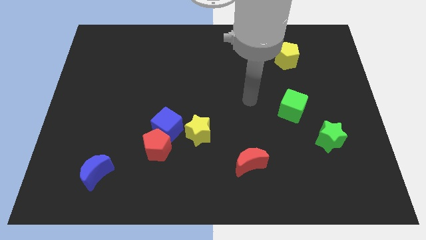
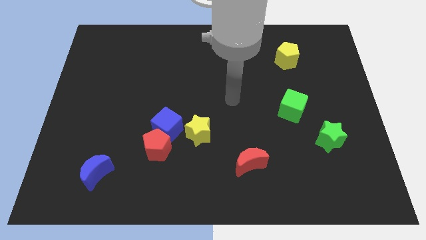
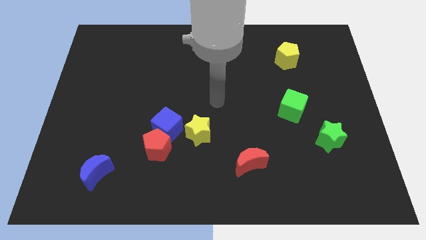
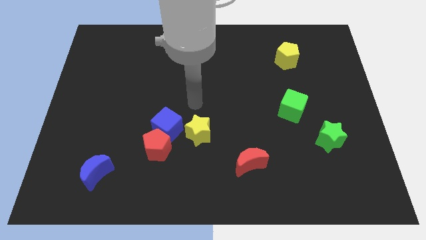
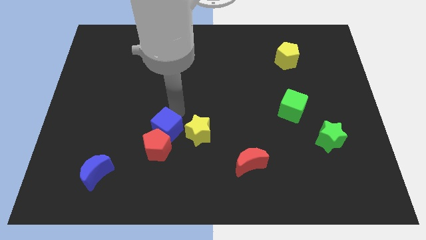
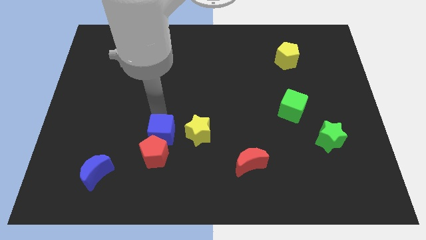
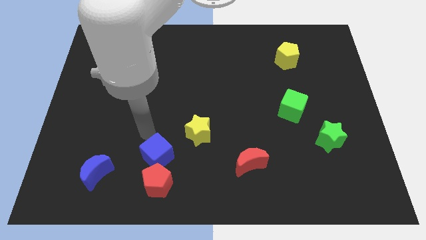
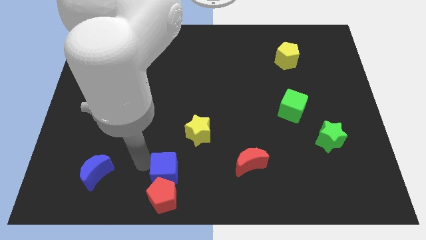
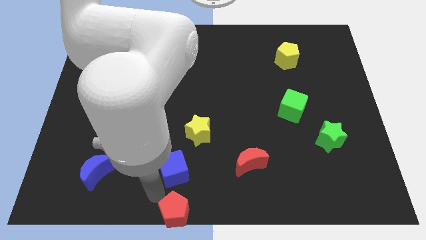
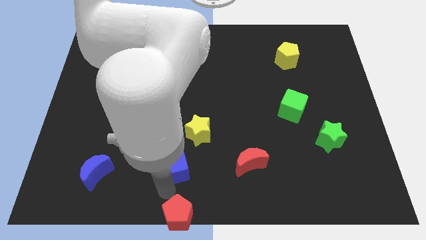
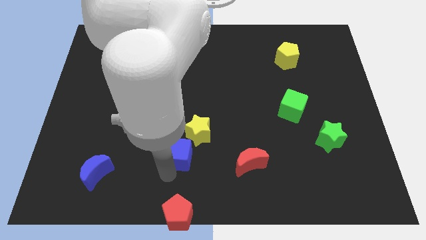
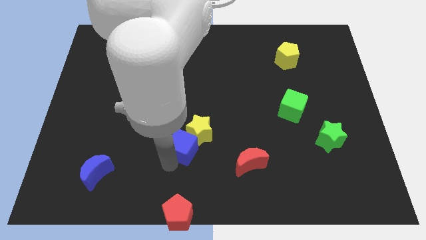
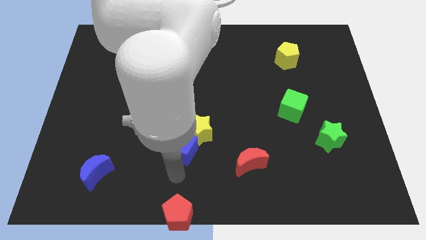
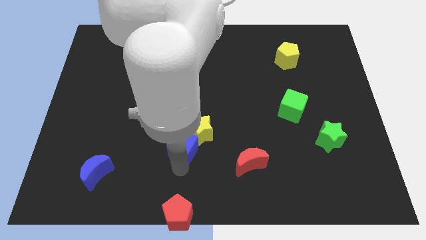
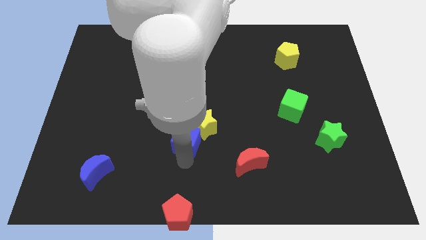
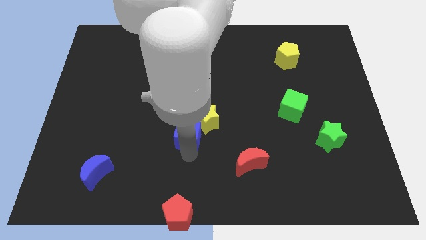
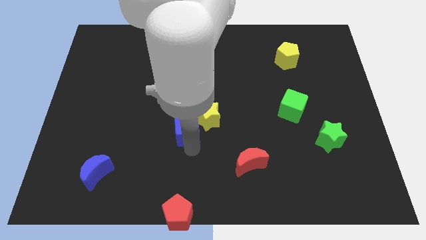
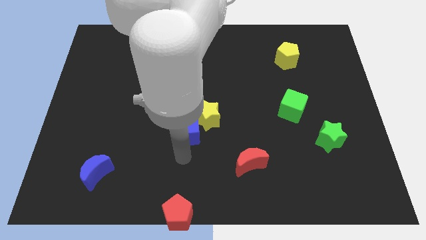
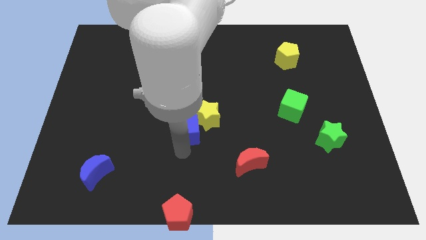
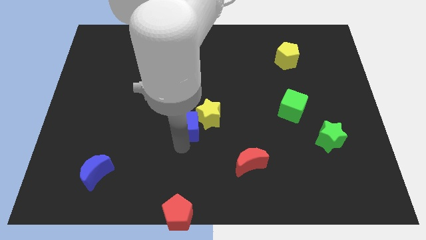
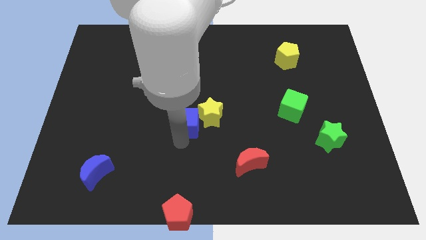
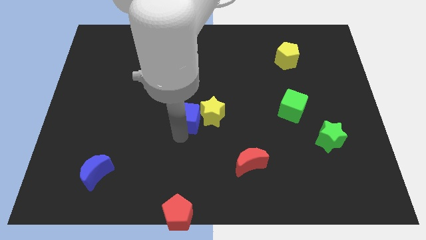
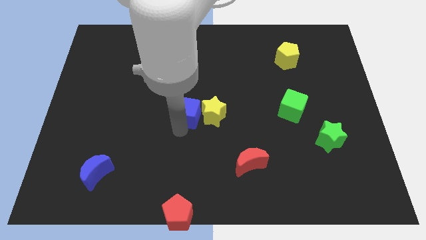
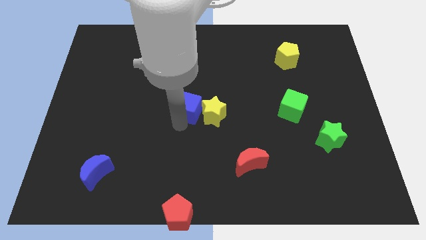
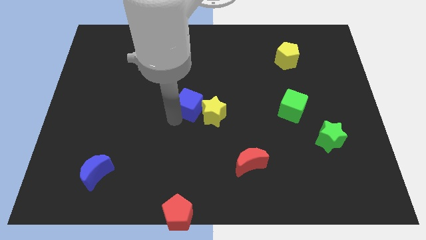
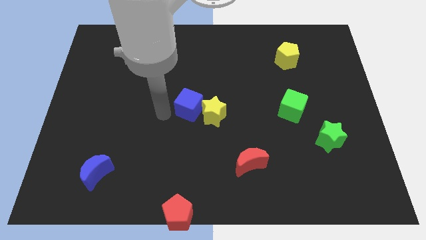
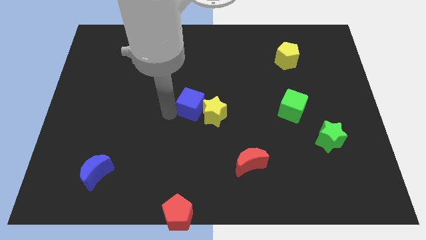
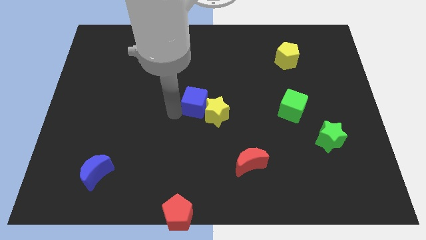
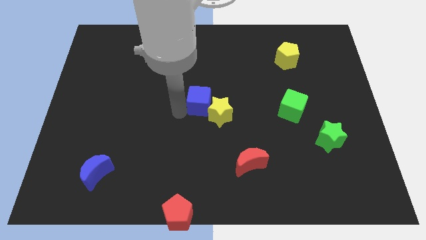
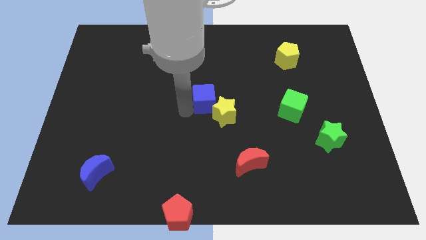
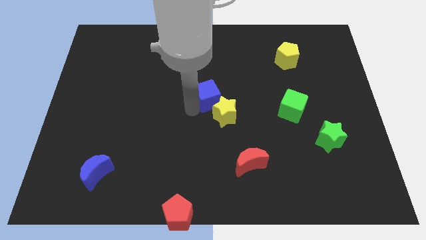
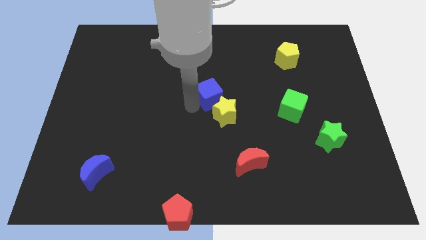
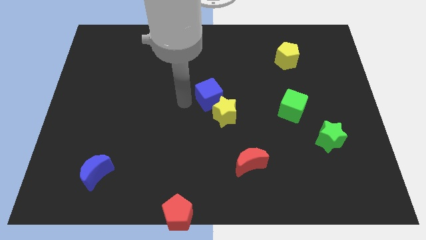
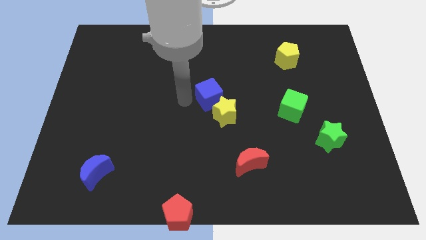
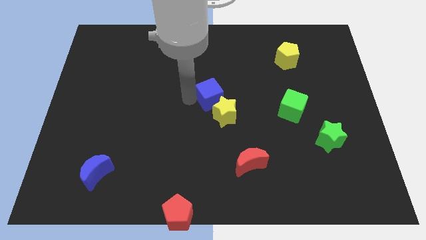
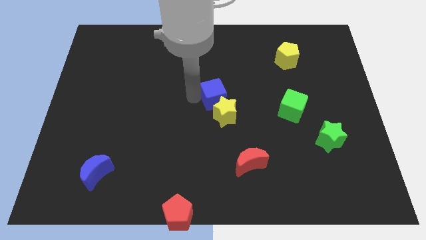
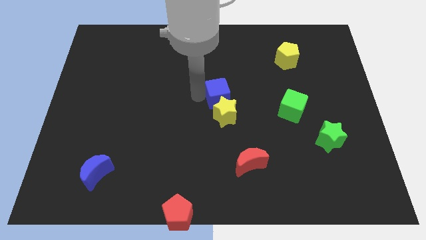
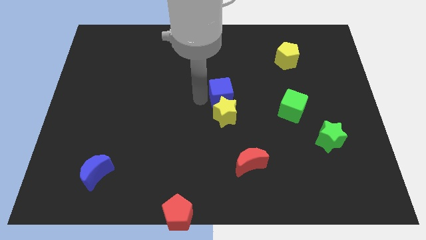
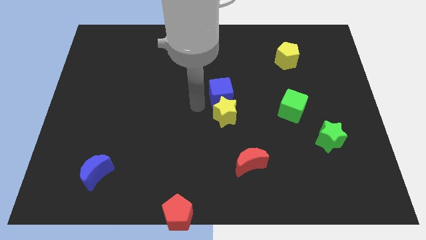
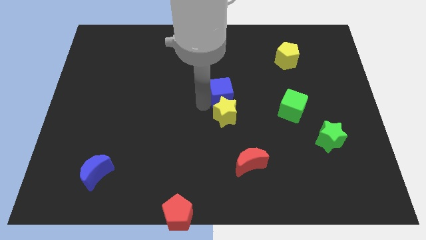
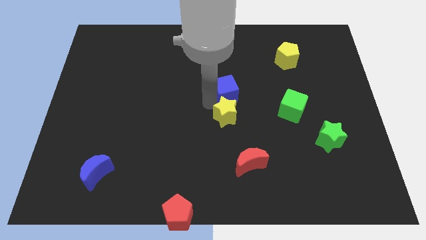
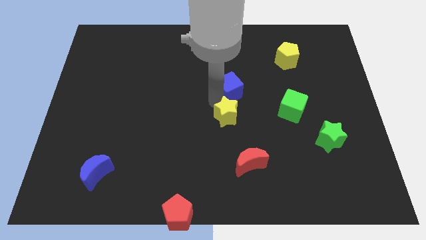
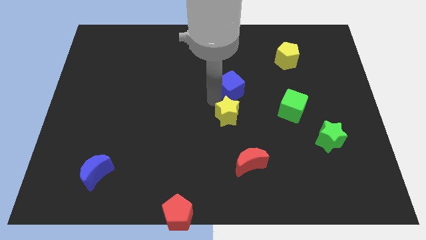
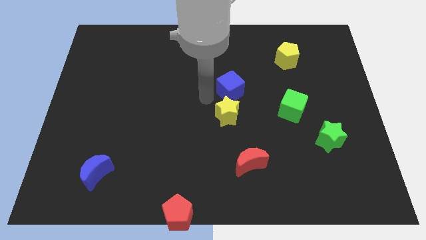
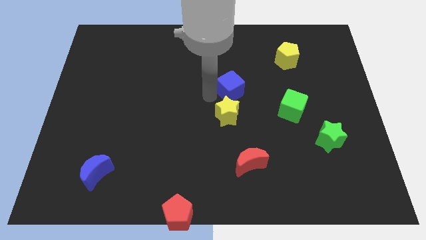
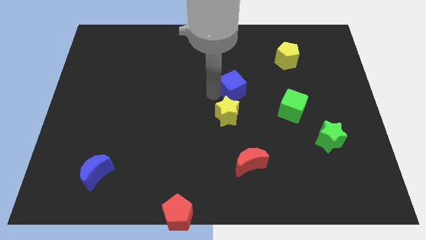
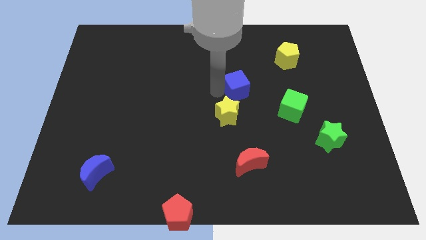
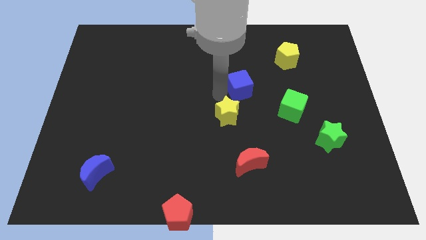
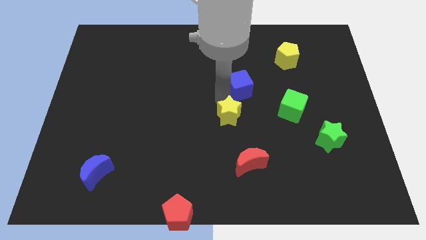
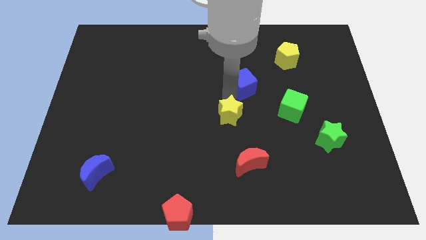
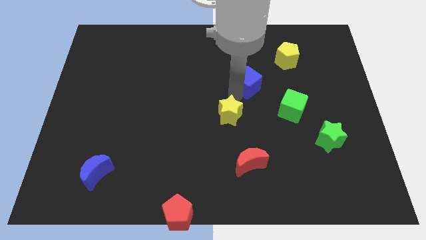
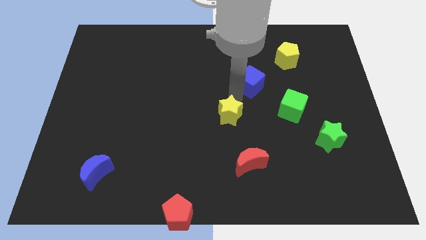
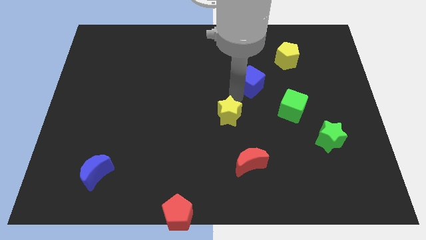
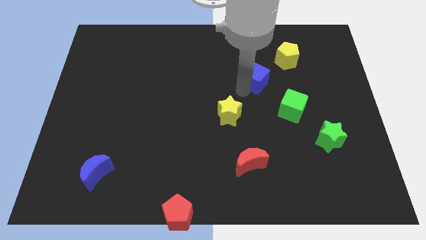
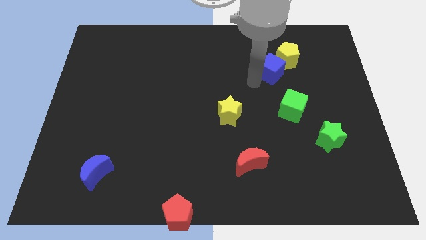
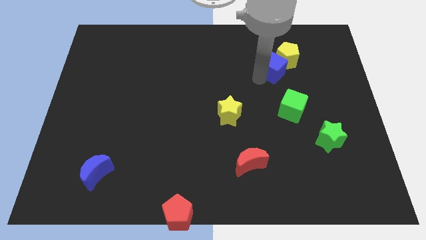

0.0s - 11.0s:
push the blue cube next to the yellow pentagon

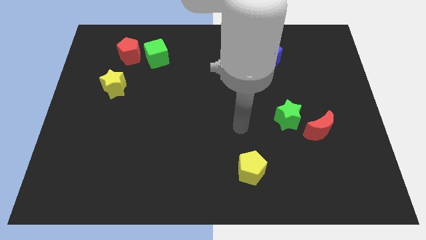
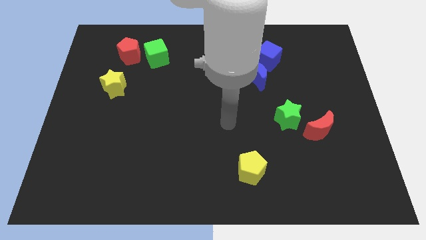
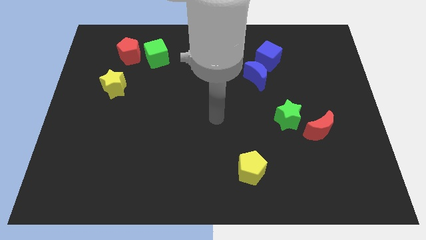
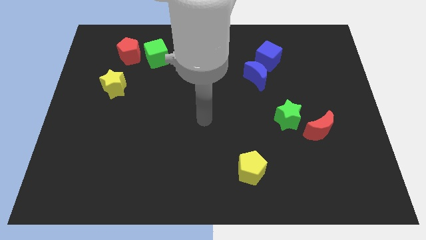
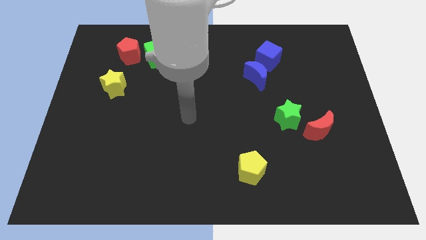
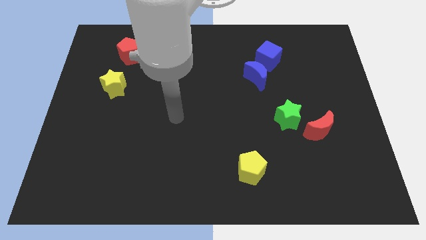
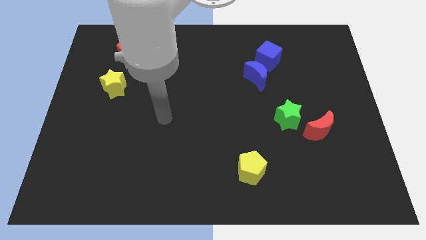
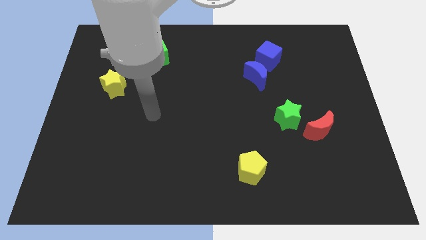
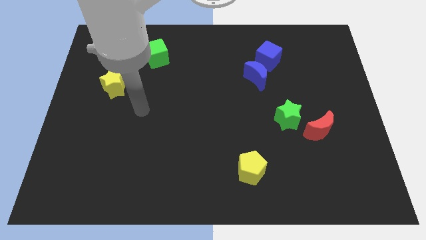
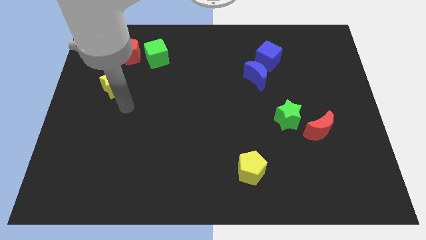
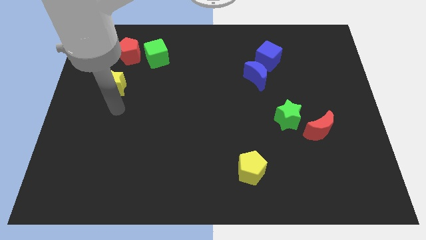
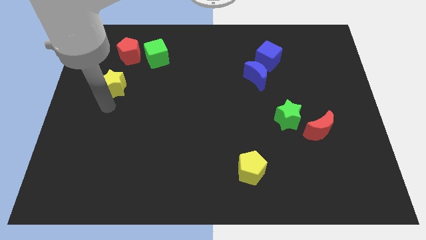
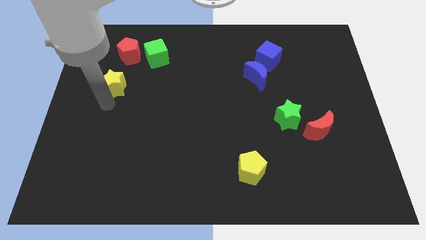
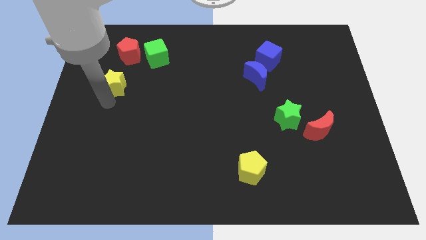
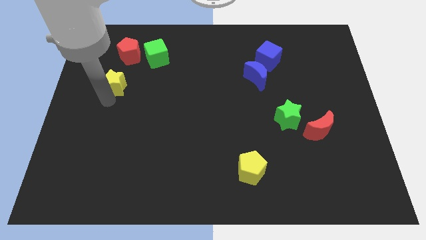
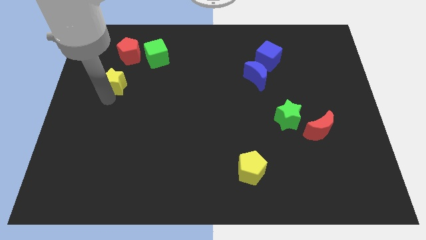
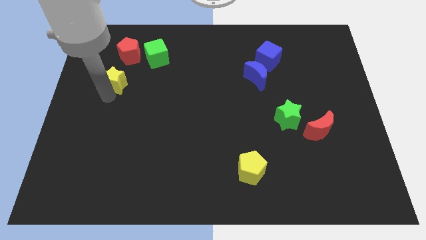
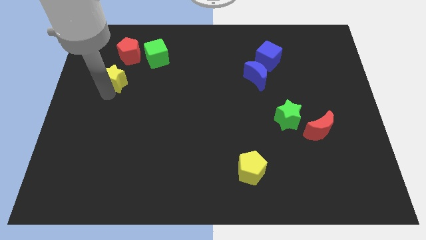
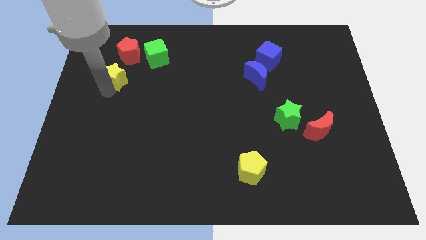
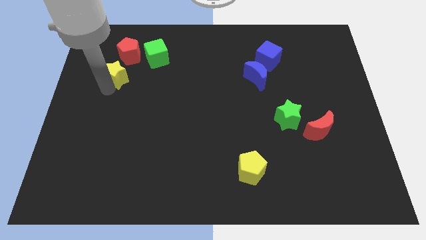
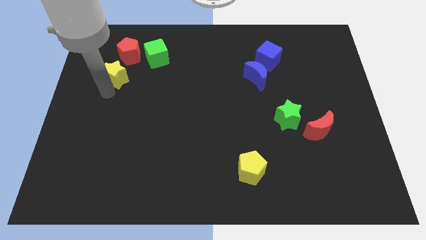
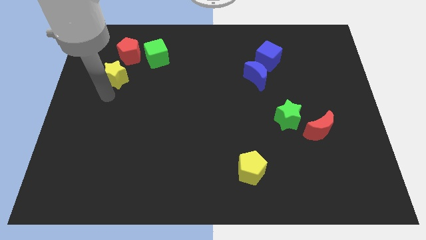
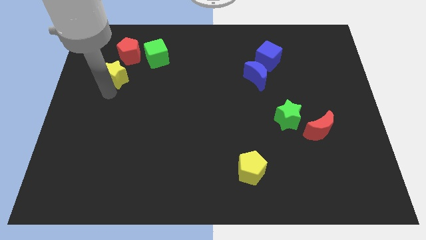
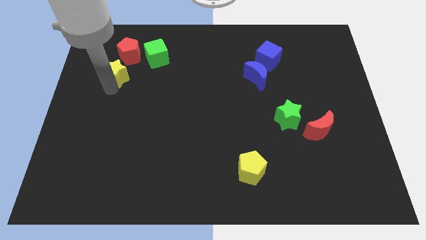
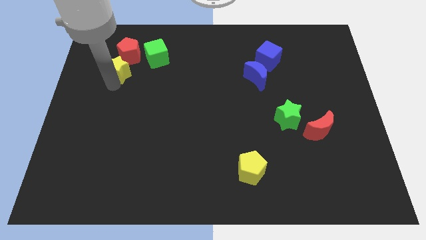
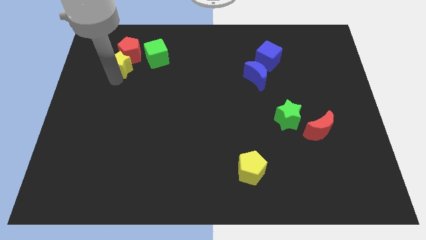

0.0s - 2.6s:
push the yellow star to the red pentagon
